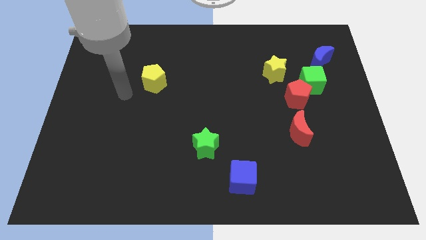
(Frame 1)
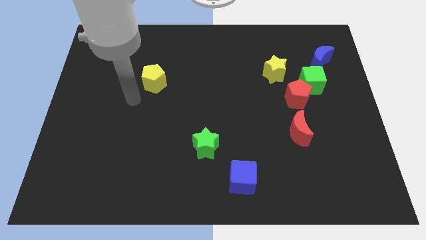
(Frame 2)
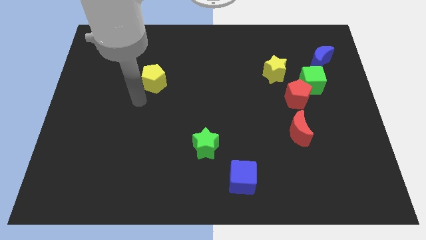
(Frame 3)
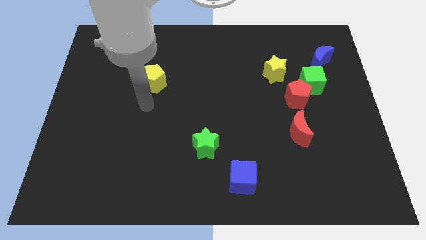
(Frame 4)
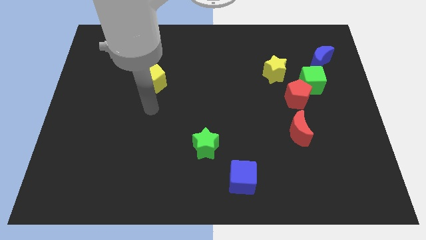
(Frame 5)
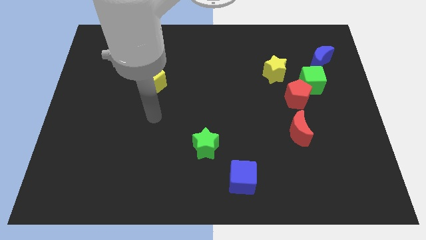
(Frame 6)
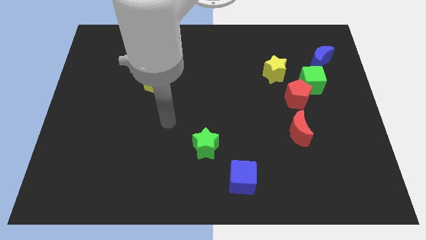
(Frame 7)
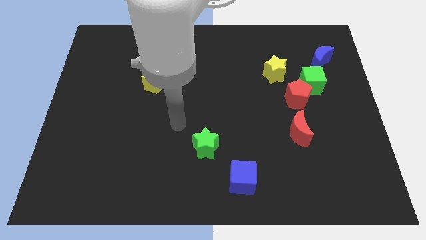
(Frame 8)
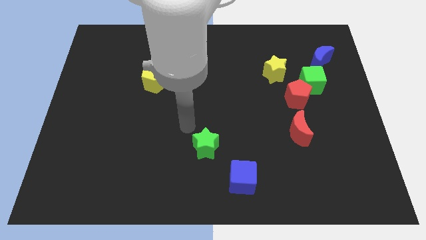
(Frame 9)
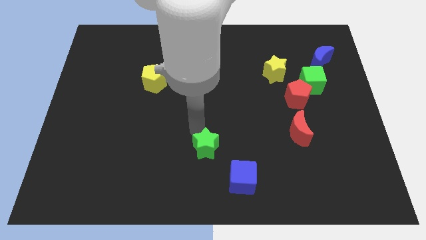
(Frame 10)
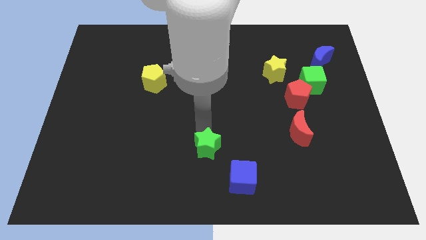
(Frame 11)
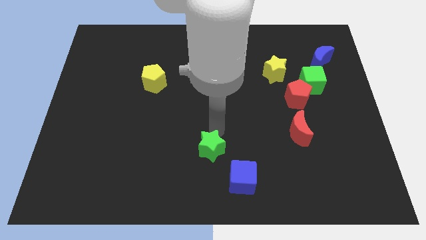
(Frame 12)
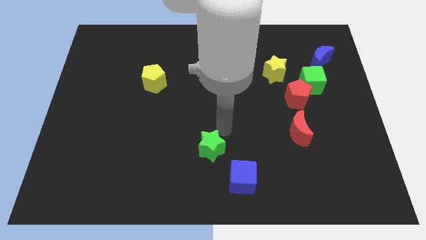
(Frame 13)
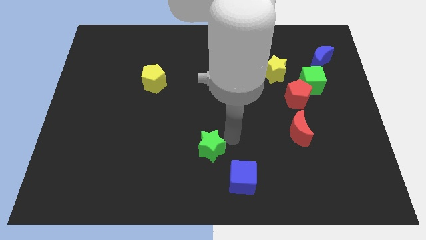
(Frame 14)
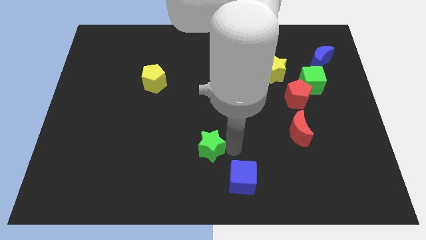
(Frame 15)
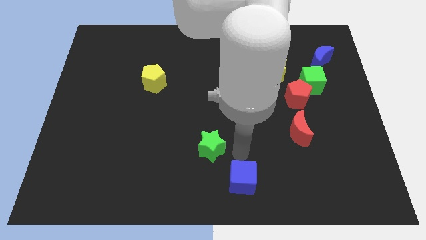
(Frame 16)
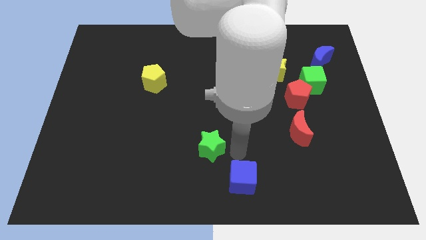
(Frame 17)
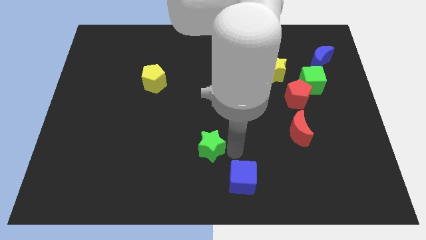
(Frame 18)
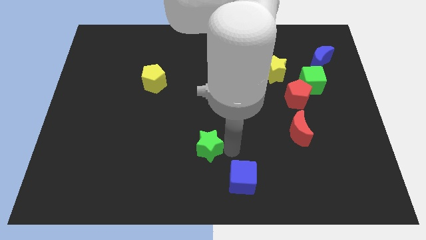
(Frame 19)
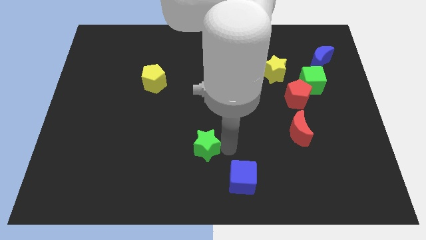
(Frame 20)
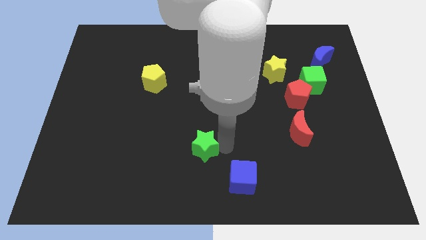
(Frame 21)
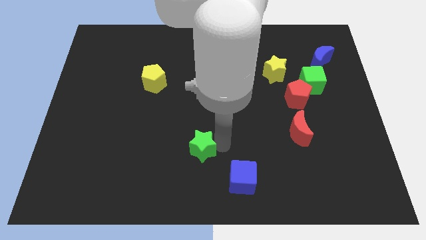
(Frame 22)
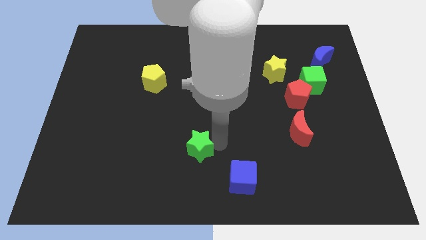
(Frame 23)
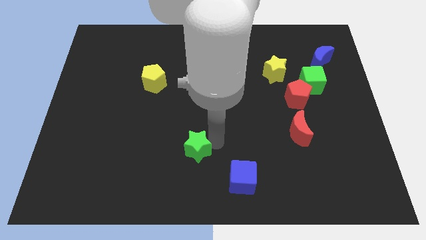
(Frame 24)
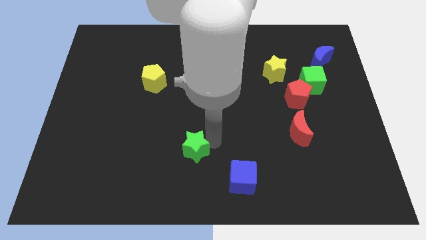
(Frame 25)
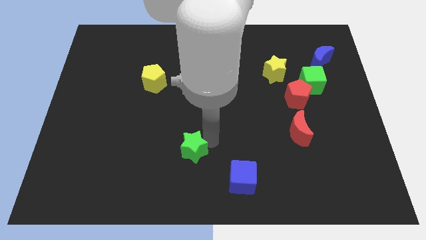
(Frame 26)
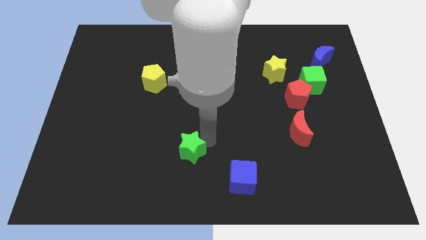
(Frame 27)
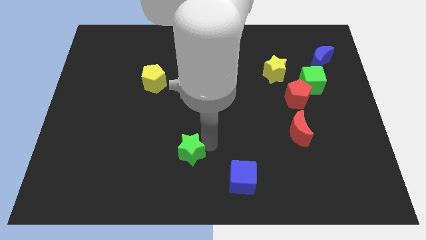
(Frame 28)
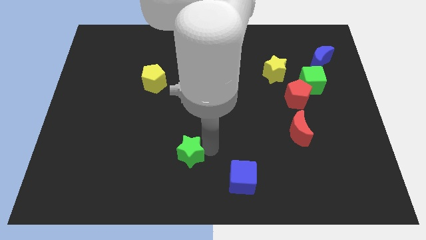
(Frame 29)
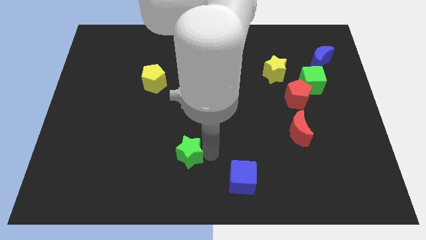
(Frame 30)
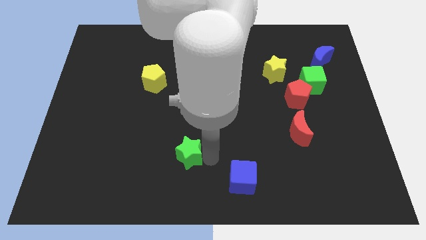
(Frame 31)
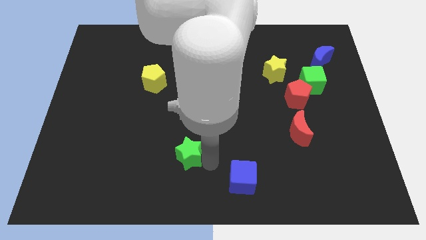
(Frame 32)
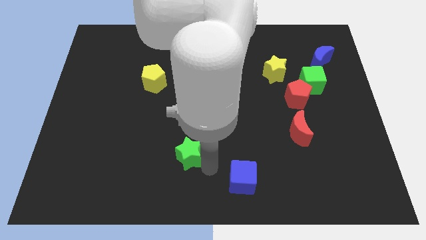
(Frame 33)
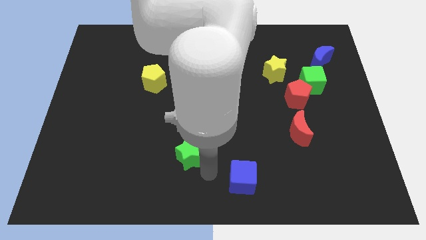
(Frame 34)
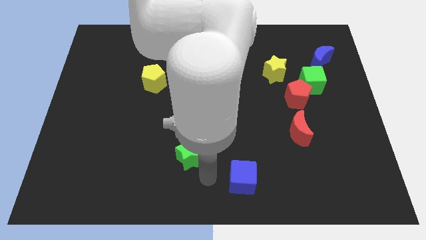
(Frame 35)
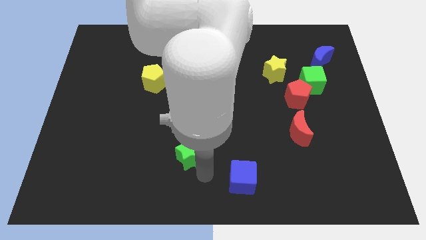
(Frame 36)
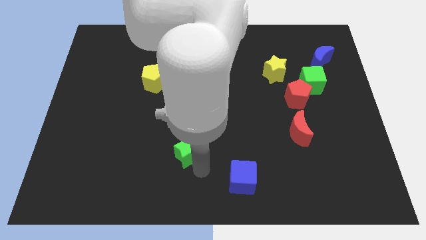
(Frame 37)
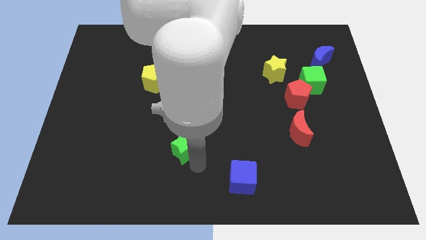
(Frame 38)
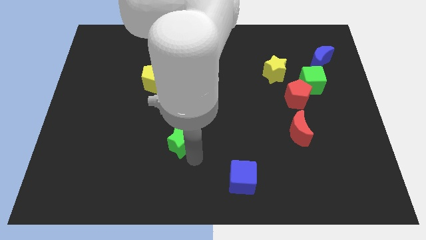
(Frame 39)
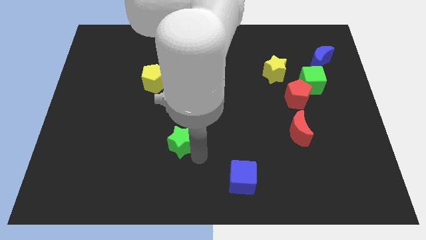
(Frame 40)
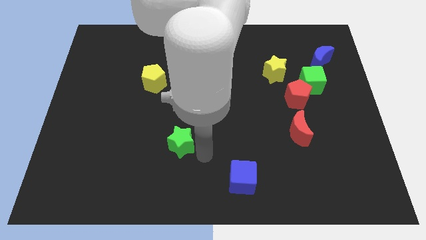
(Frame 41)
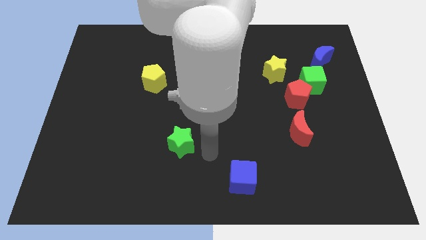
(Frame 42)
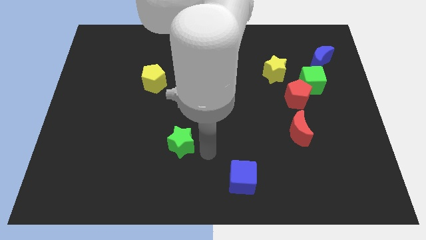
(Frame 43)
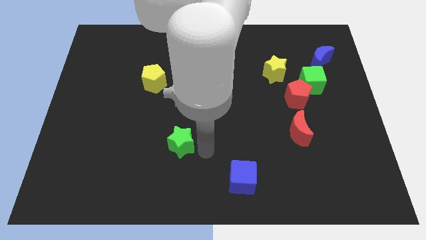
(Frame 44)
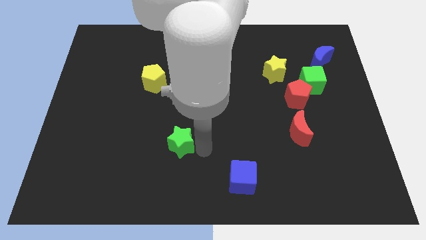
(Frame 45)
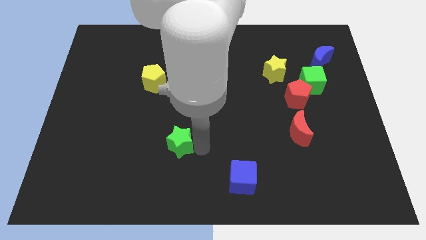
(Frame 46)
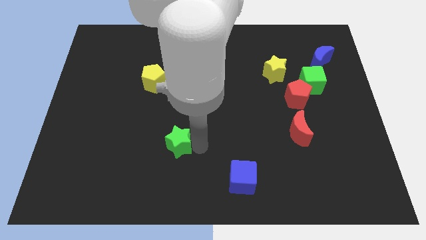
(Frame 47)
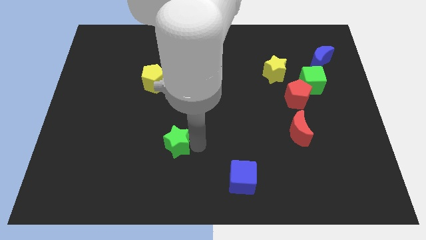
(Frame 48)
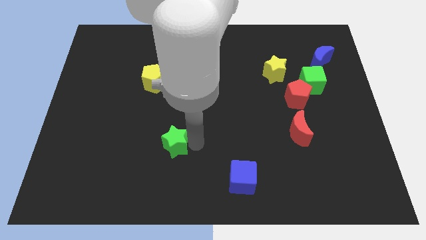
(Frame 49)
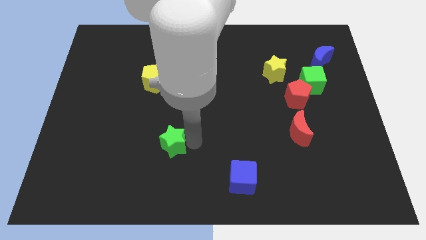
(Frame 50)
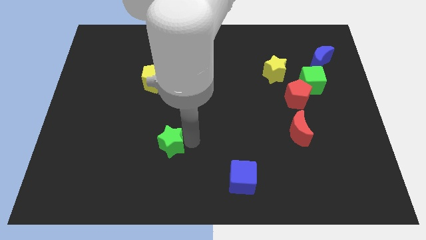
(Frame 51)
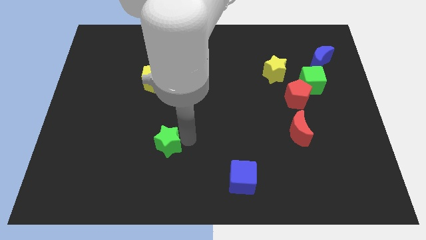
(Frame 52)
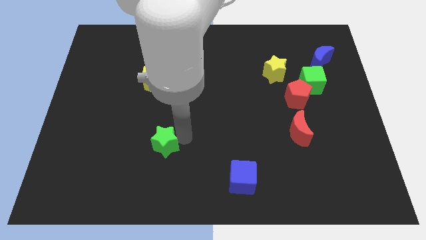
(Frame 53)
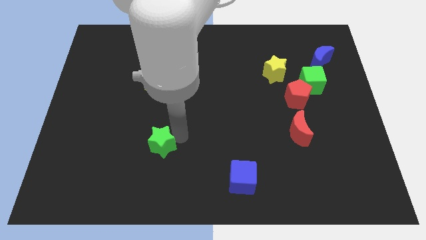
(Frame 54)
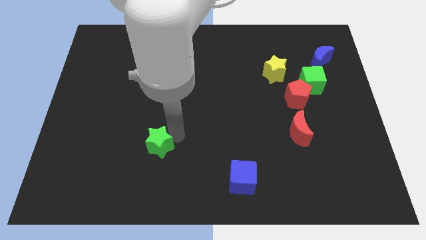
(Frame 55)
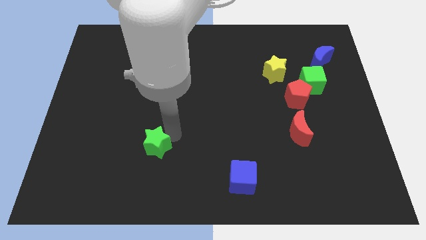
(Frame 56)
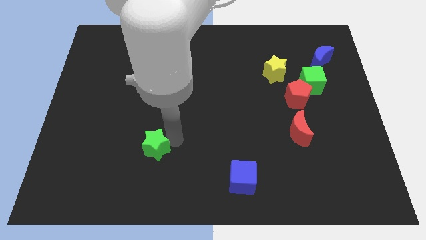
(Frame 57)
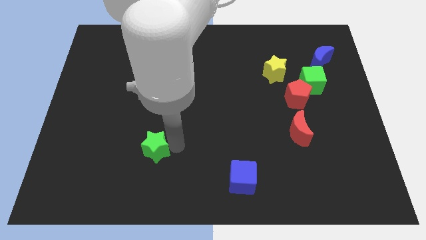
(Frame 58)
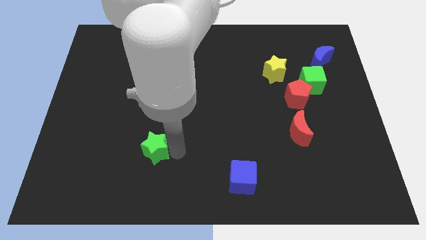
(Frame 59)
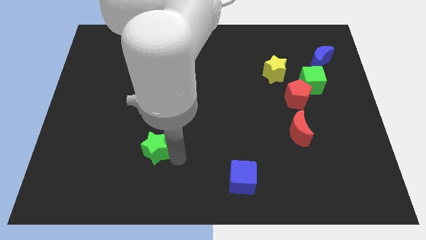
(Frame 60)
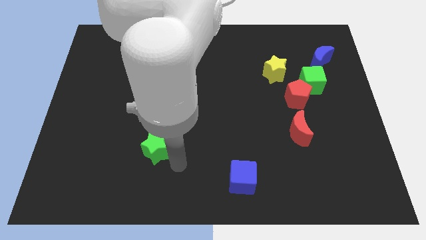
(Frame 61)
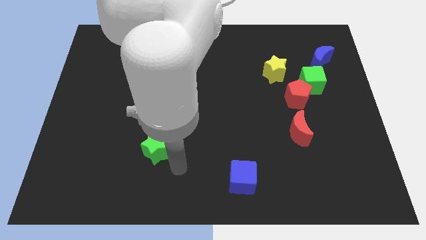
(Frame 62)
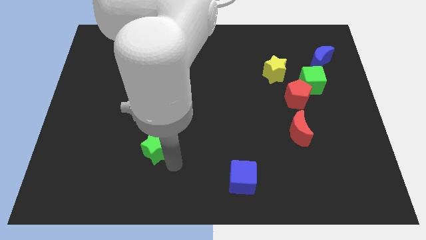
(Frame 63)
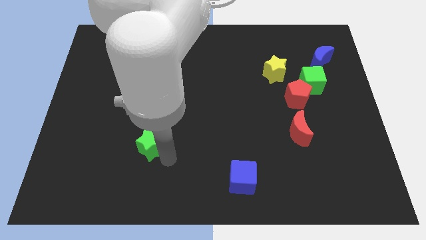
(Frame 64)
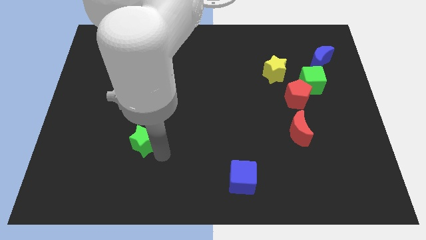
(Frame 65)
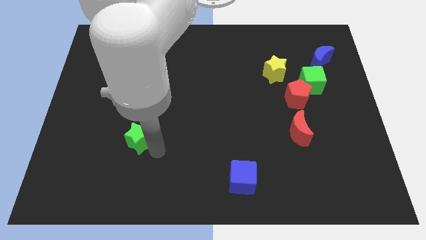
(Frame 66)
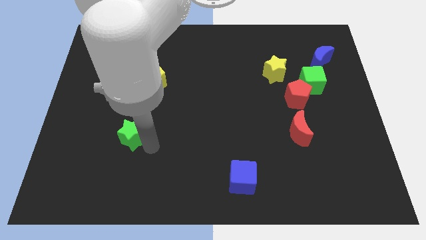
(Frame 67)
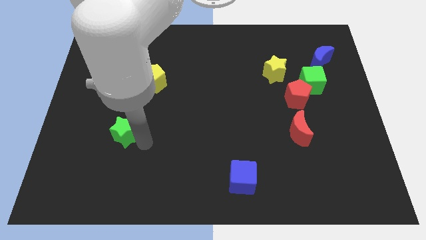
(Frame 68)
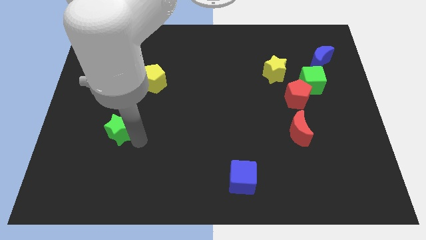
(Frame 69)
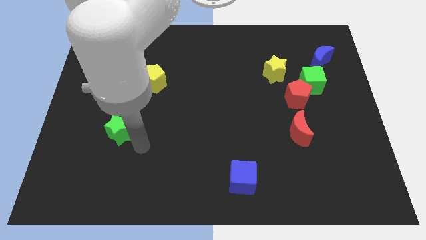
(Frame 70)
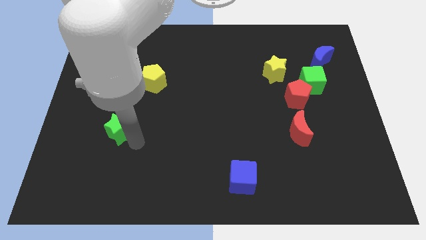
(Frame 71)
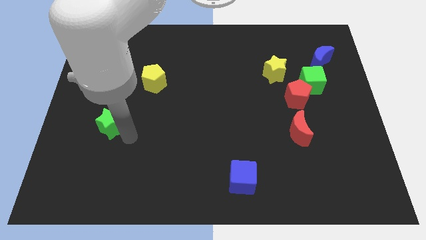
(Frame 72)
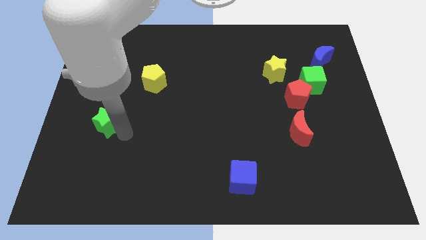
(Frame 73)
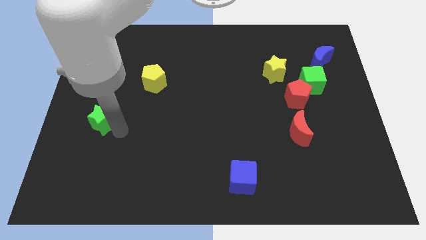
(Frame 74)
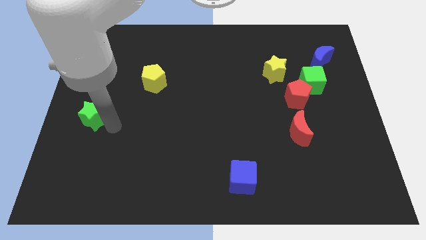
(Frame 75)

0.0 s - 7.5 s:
move the green star to the center left
